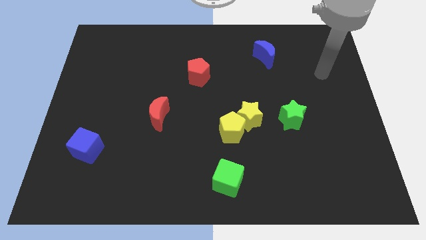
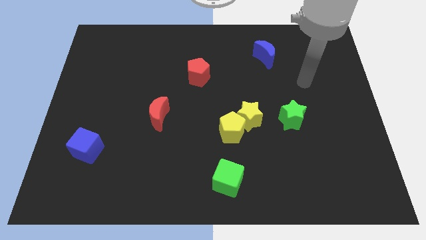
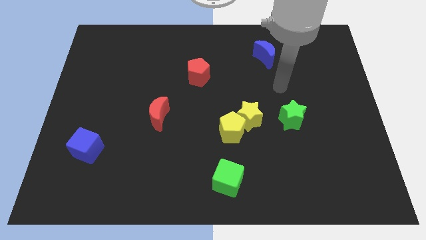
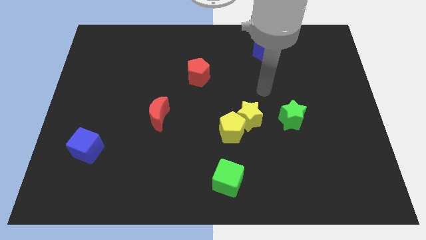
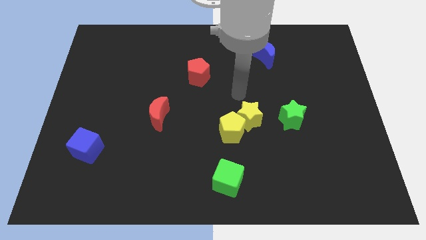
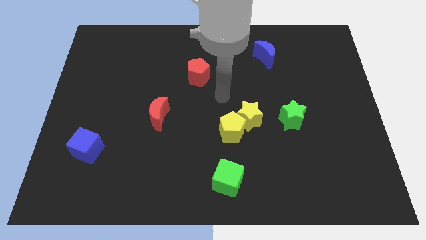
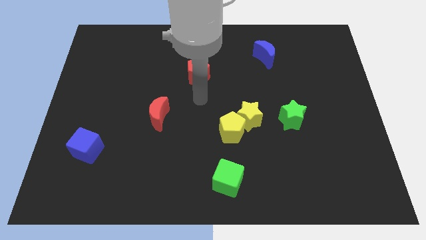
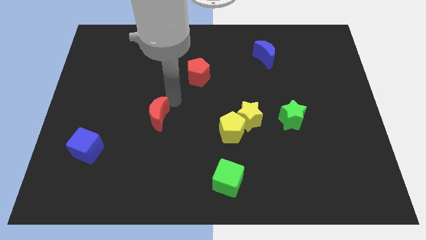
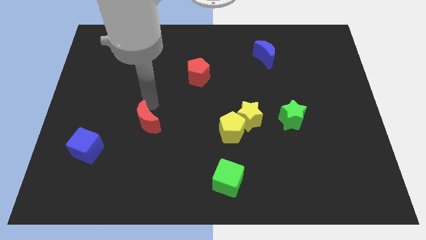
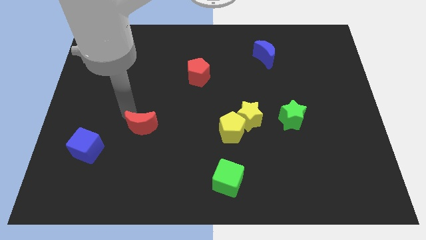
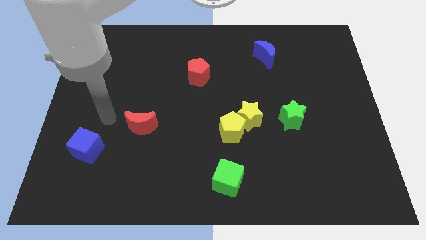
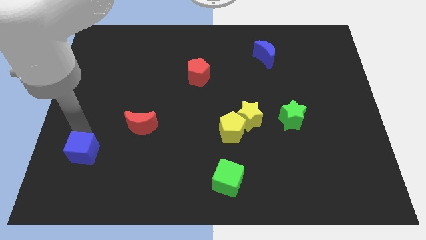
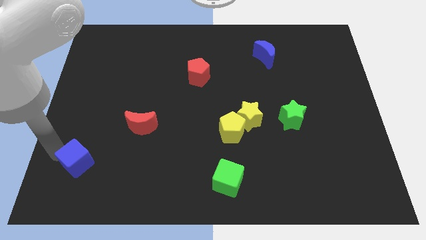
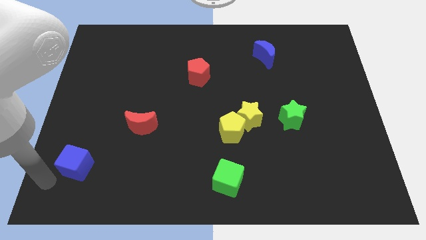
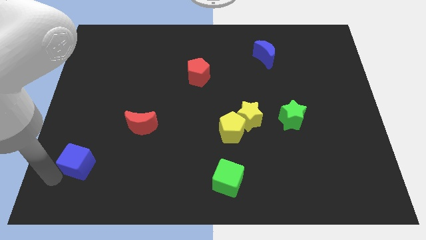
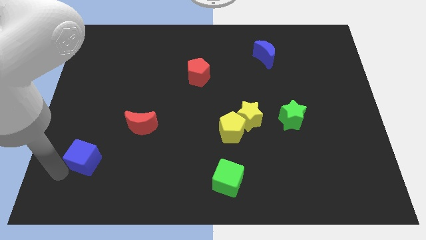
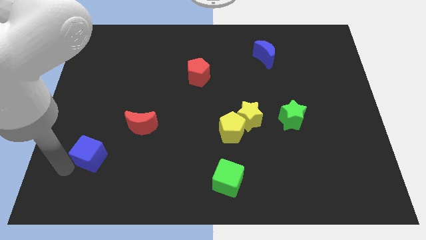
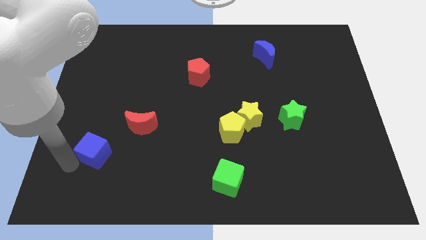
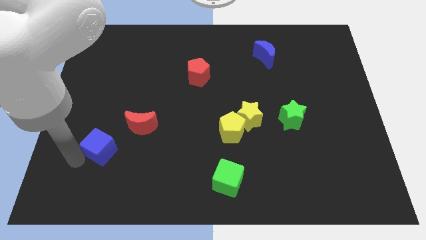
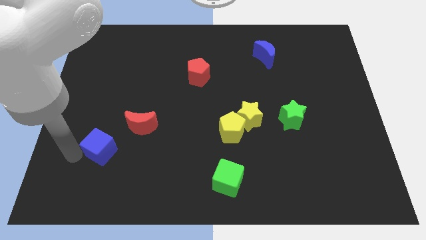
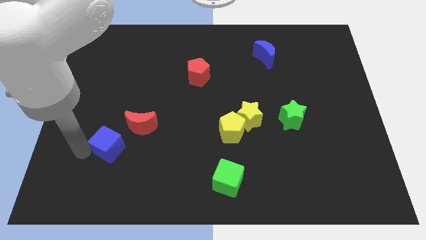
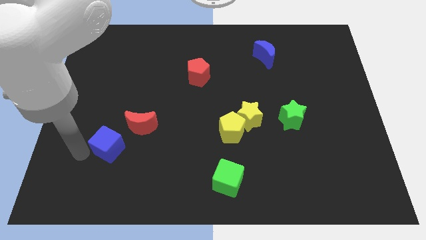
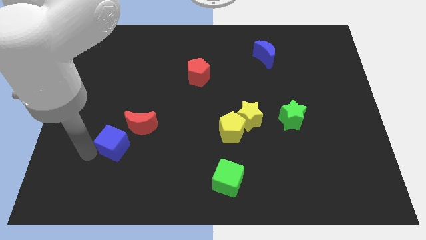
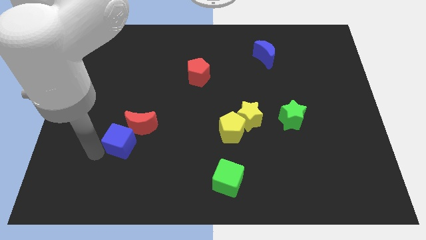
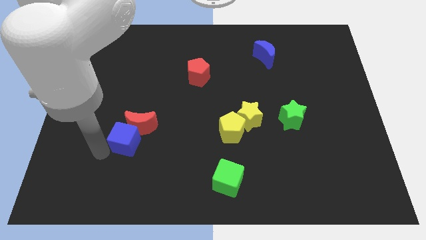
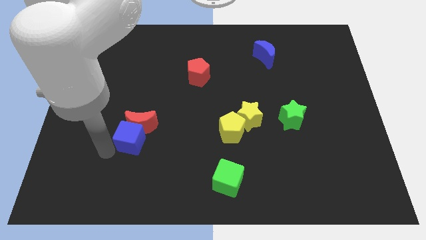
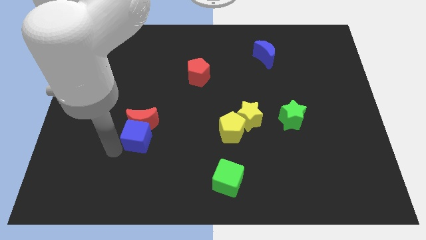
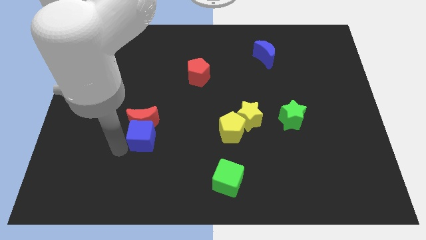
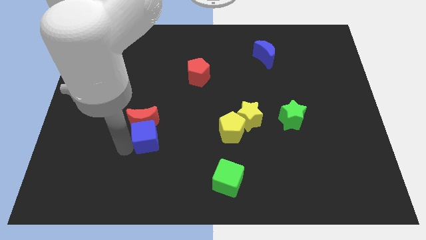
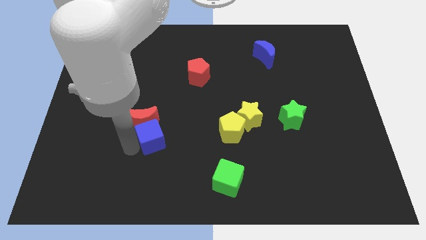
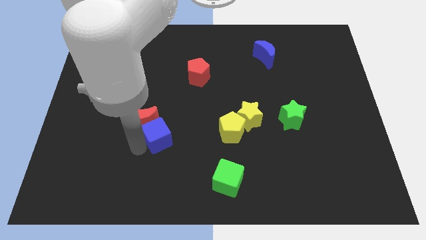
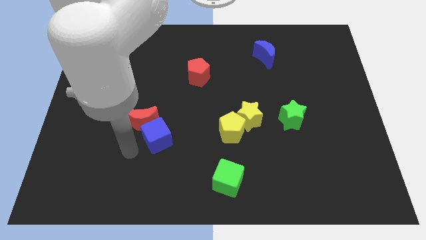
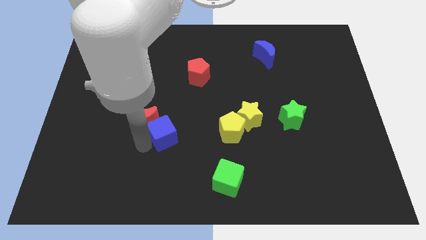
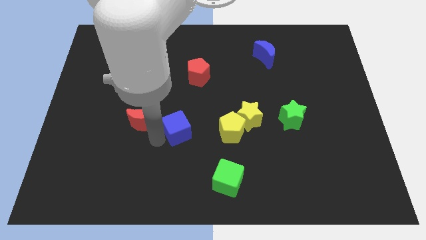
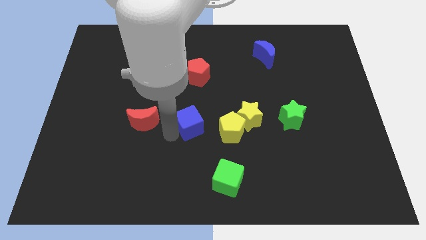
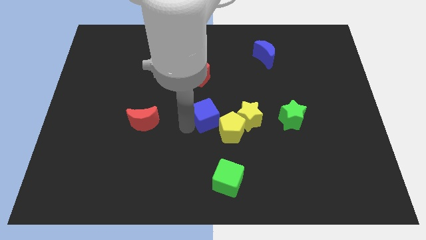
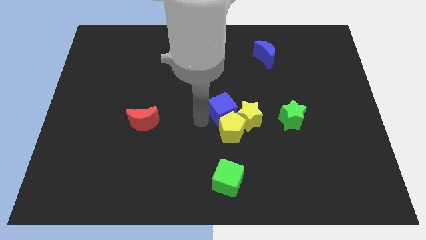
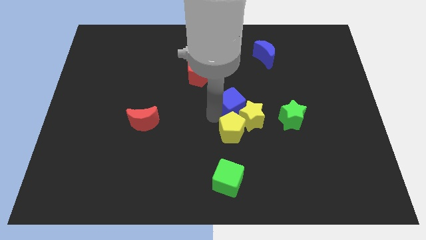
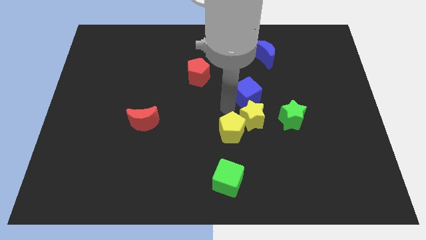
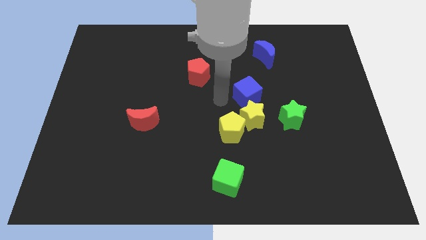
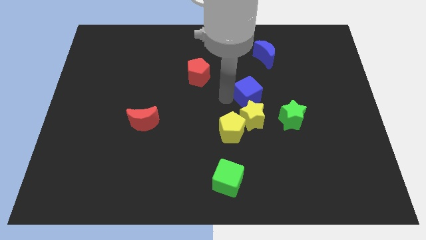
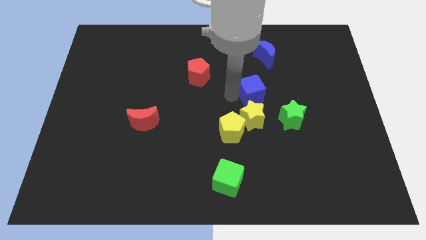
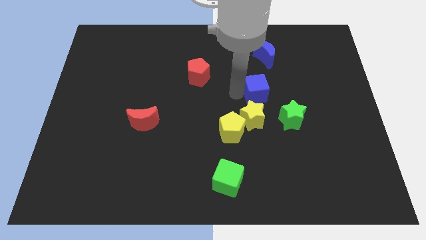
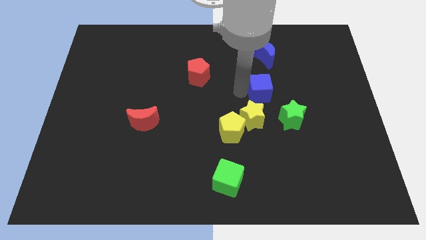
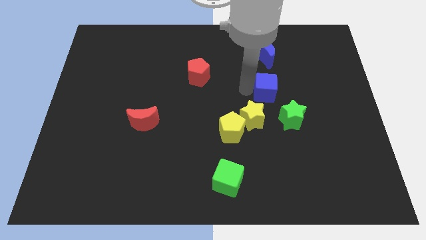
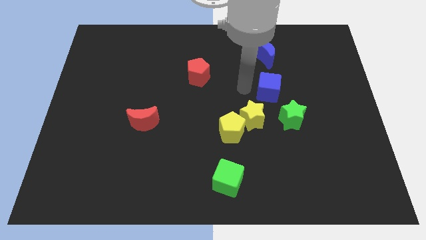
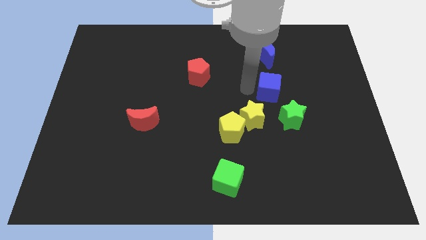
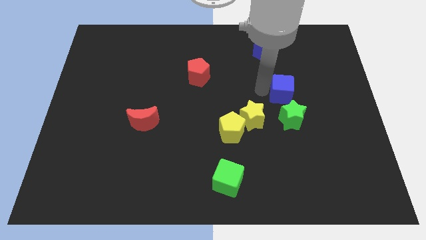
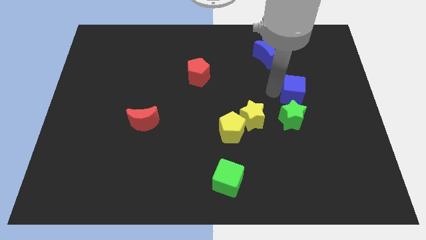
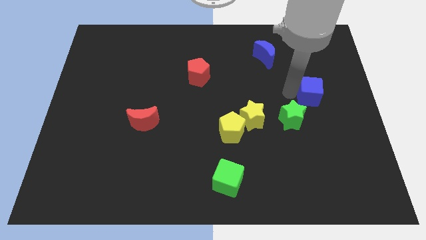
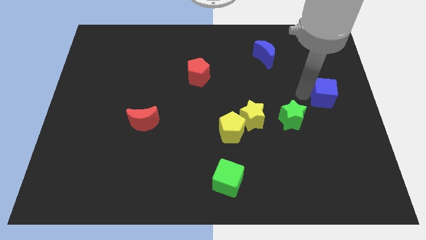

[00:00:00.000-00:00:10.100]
put the blue cube to the right side of the board
